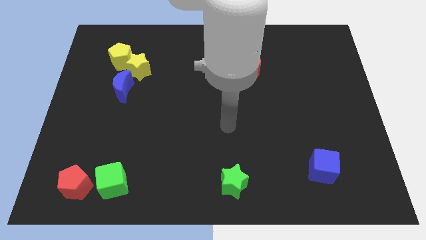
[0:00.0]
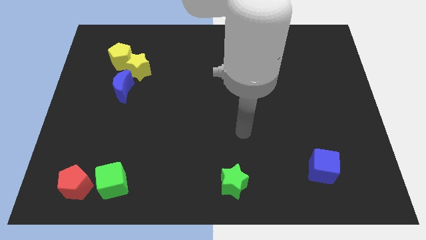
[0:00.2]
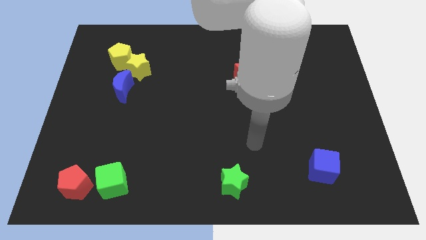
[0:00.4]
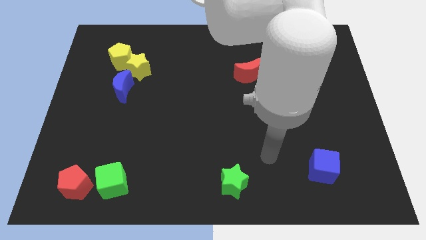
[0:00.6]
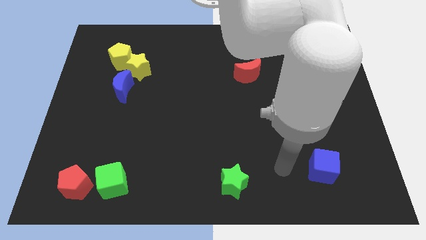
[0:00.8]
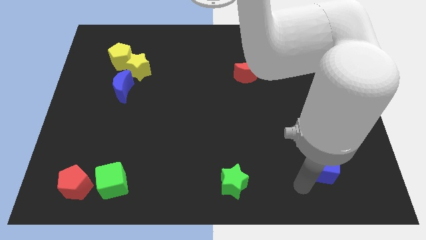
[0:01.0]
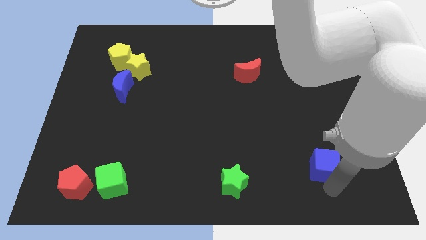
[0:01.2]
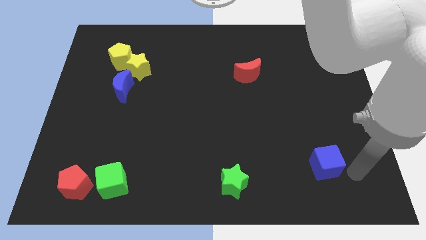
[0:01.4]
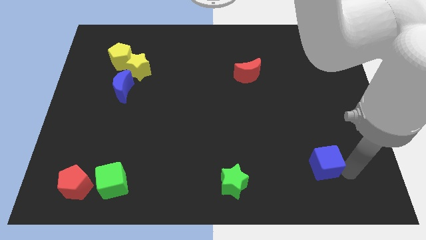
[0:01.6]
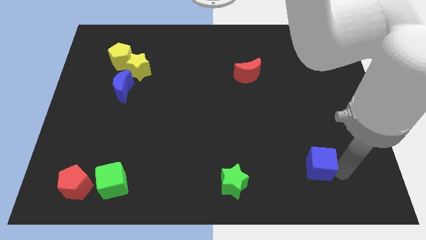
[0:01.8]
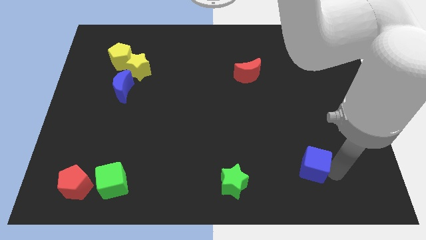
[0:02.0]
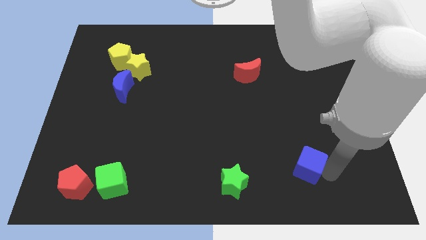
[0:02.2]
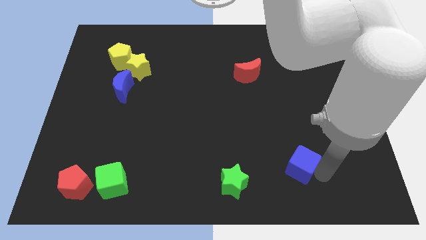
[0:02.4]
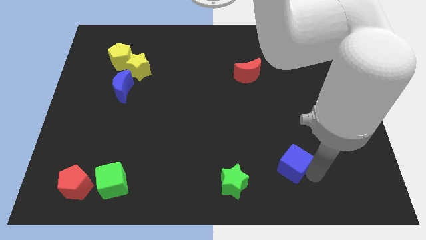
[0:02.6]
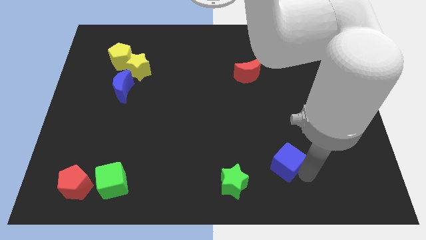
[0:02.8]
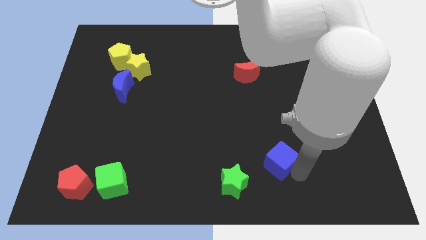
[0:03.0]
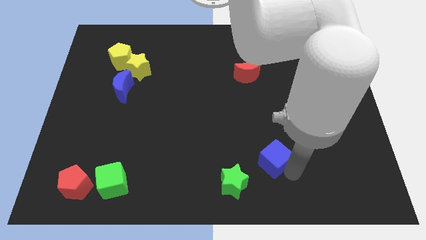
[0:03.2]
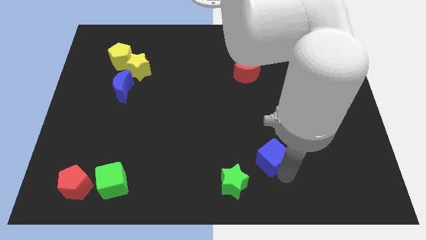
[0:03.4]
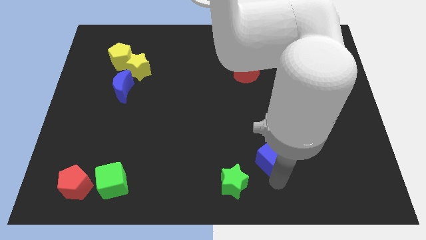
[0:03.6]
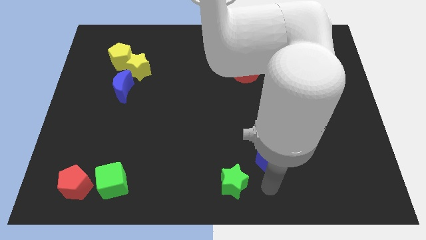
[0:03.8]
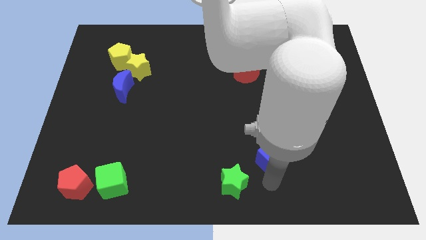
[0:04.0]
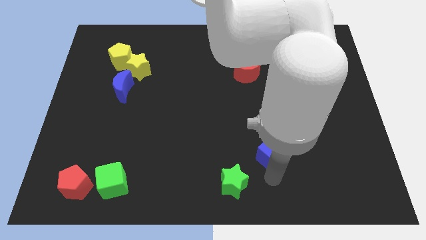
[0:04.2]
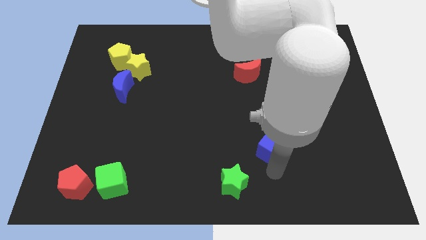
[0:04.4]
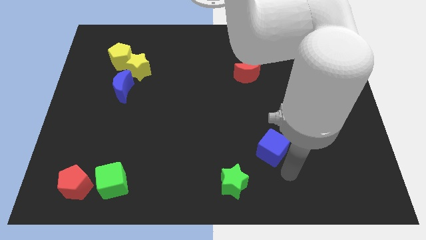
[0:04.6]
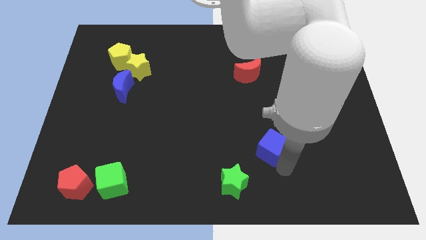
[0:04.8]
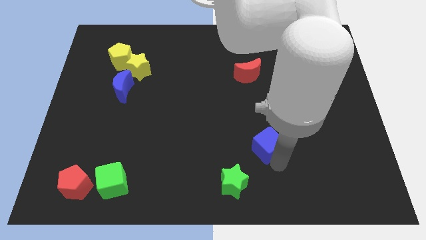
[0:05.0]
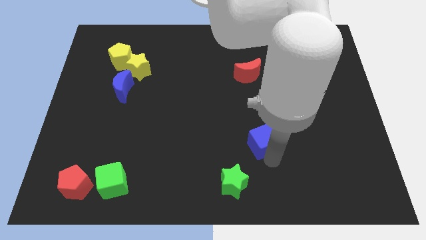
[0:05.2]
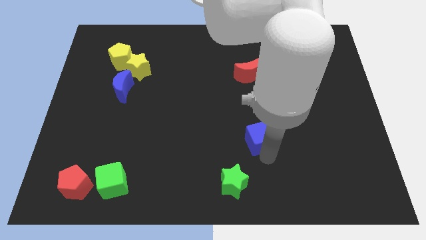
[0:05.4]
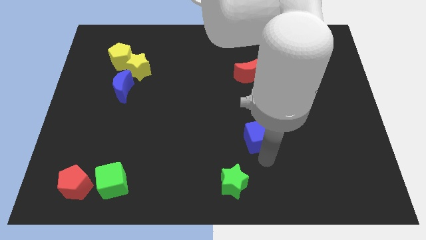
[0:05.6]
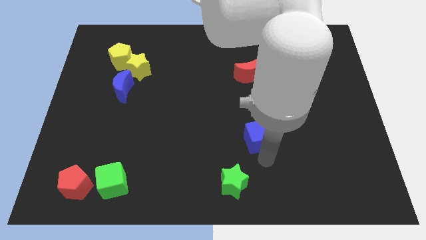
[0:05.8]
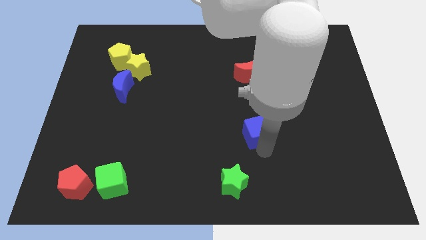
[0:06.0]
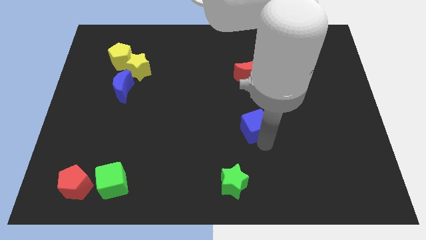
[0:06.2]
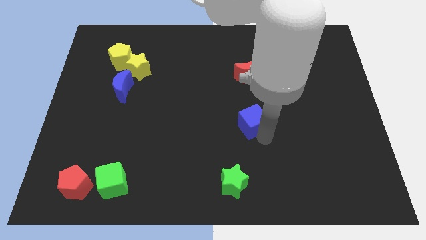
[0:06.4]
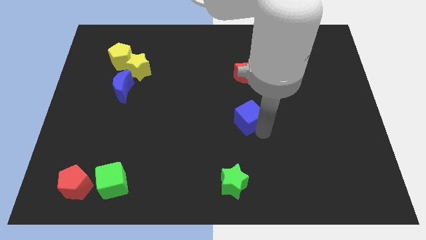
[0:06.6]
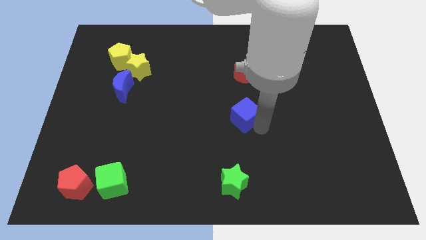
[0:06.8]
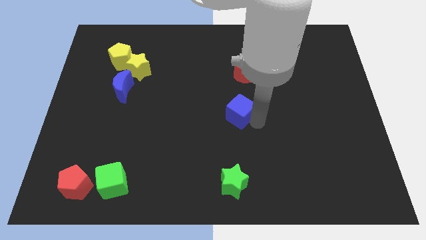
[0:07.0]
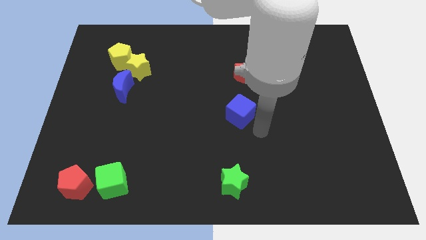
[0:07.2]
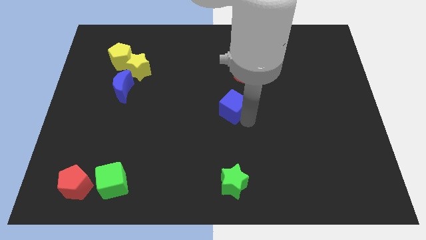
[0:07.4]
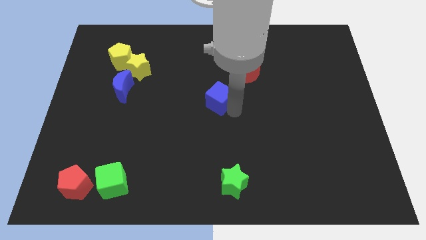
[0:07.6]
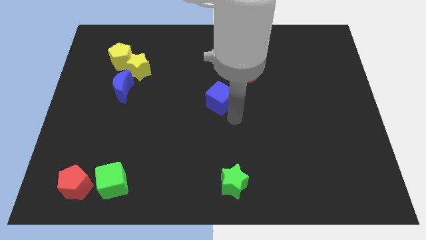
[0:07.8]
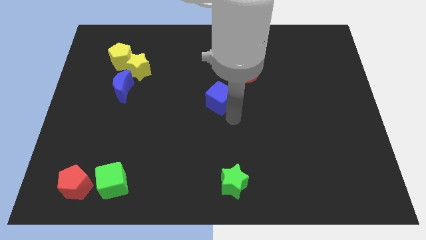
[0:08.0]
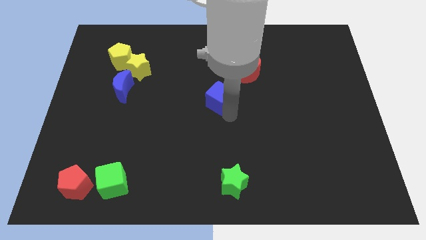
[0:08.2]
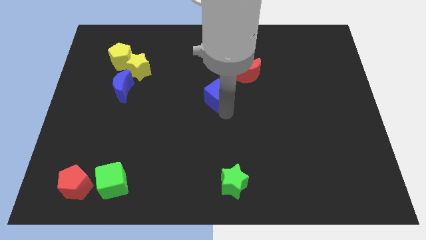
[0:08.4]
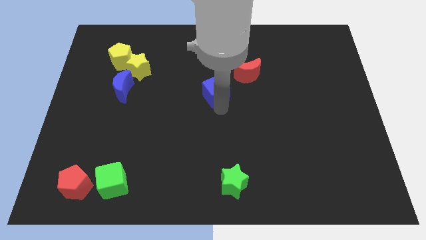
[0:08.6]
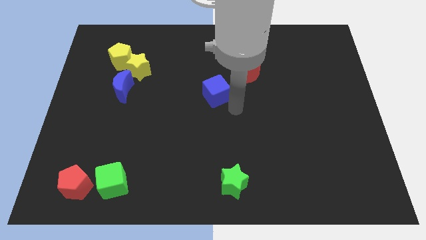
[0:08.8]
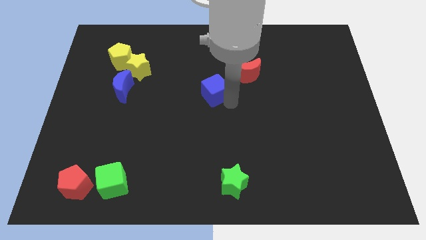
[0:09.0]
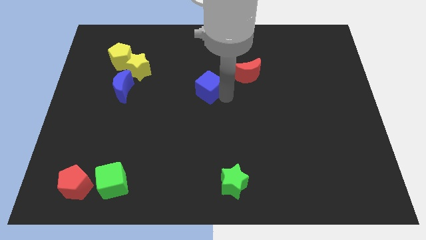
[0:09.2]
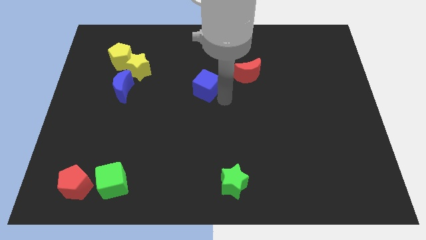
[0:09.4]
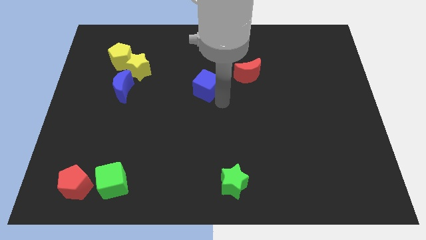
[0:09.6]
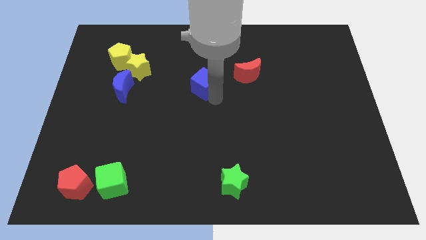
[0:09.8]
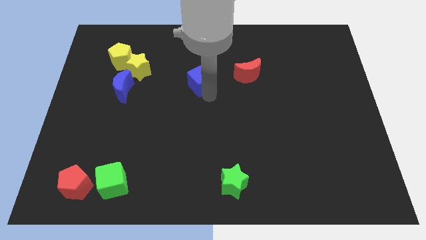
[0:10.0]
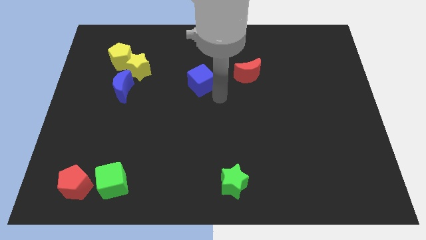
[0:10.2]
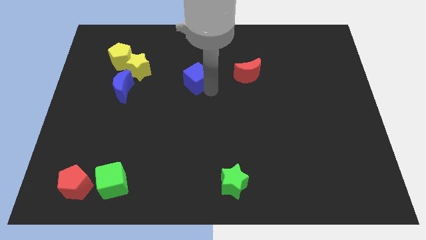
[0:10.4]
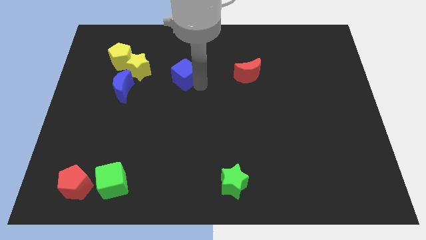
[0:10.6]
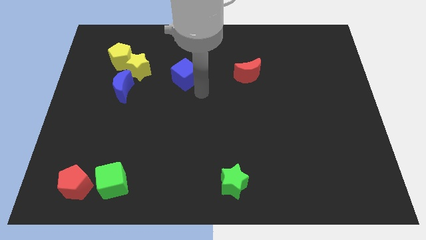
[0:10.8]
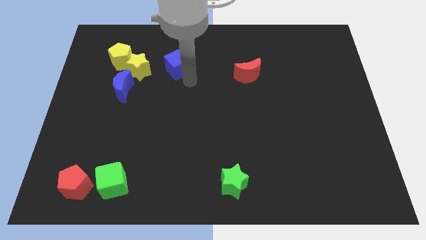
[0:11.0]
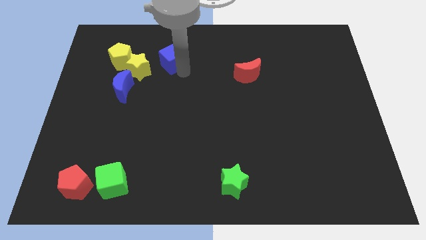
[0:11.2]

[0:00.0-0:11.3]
slide the blue cube to the top right side of the yellow star
